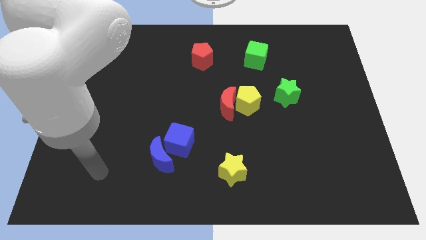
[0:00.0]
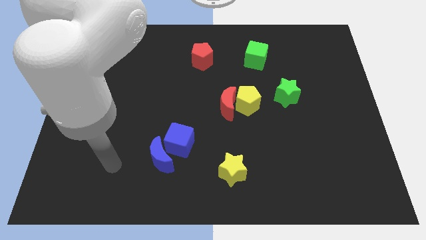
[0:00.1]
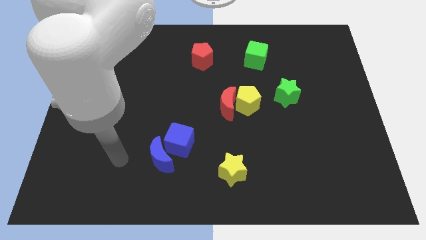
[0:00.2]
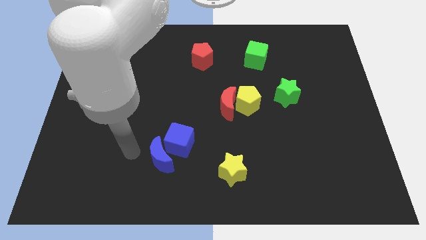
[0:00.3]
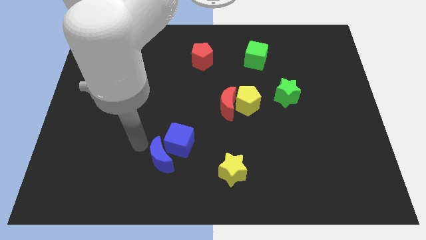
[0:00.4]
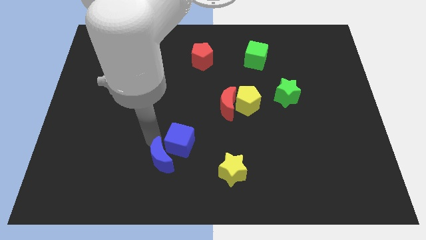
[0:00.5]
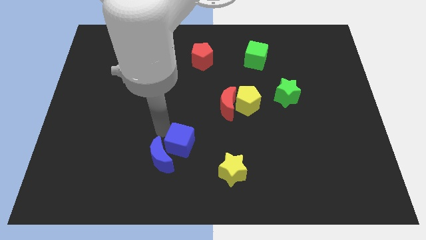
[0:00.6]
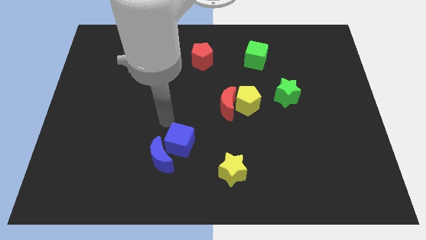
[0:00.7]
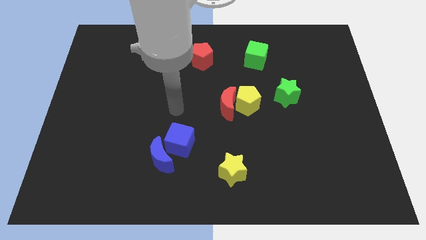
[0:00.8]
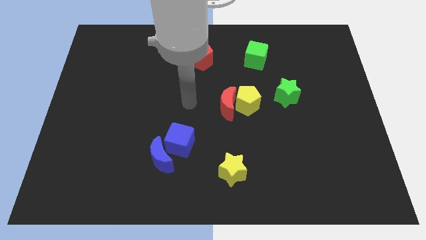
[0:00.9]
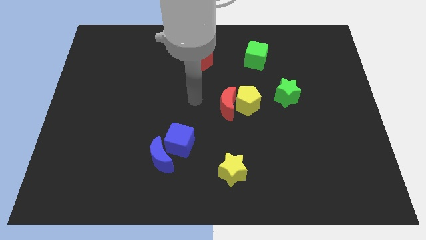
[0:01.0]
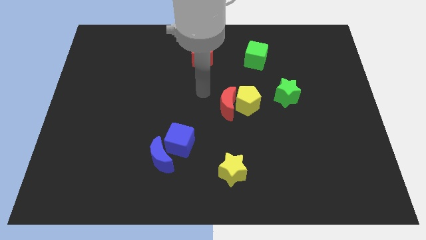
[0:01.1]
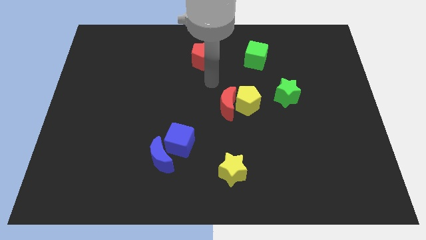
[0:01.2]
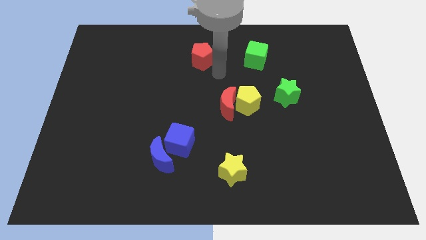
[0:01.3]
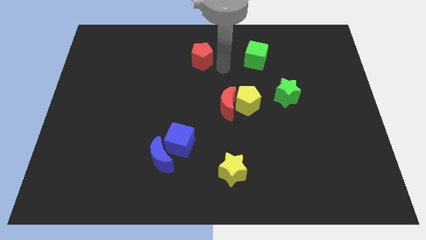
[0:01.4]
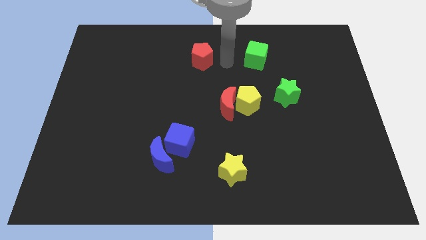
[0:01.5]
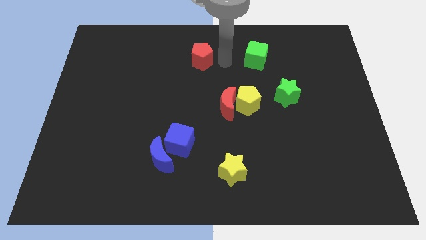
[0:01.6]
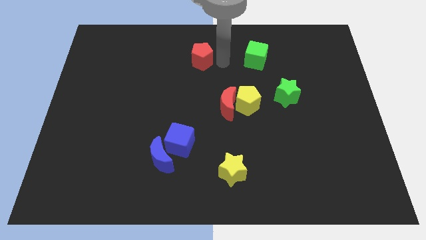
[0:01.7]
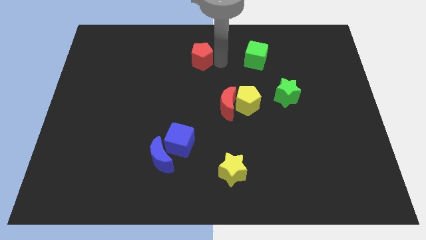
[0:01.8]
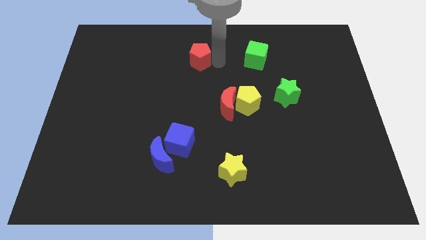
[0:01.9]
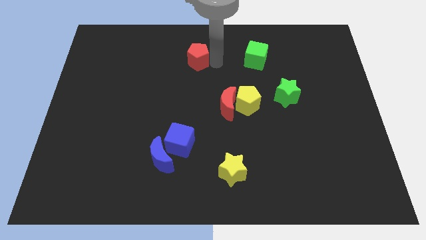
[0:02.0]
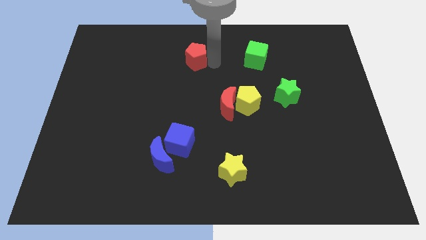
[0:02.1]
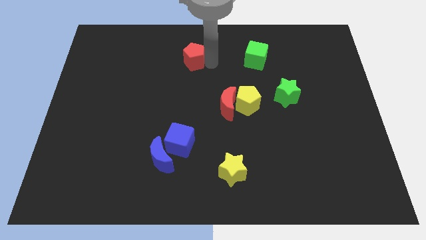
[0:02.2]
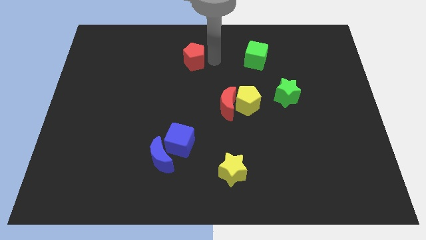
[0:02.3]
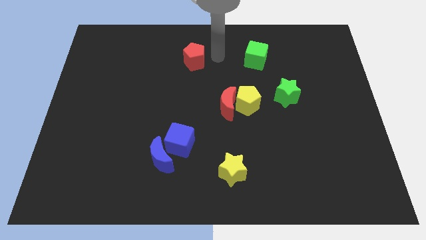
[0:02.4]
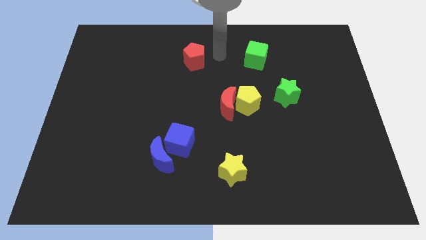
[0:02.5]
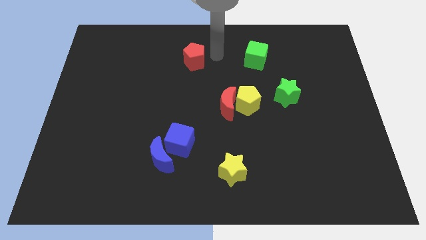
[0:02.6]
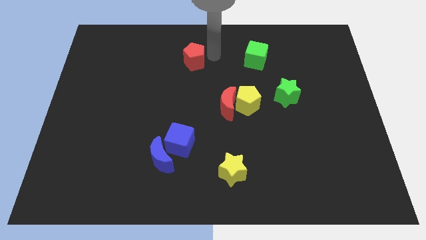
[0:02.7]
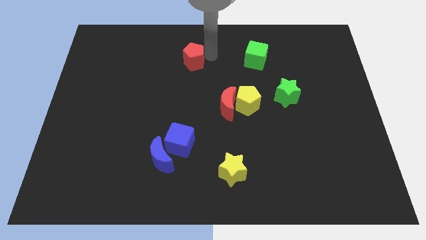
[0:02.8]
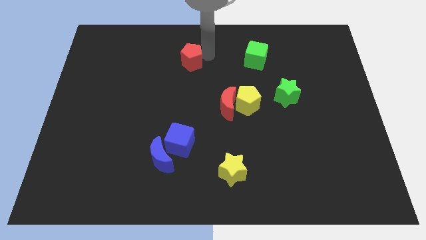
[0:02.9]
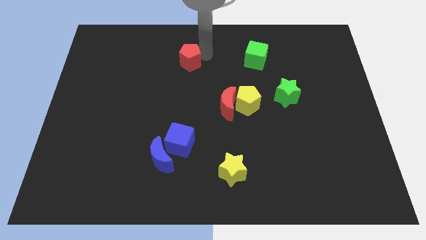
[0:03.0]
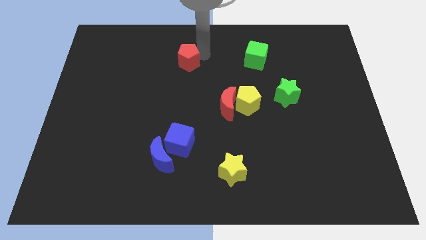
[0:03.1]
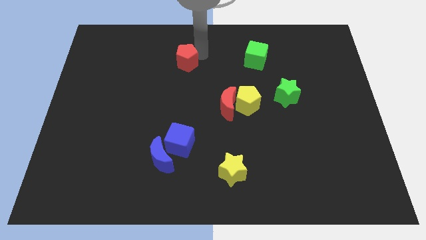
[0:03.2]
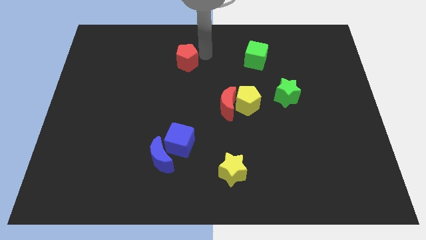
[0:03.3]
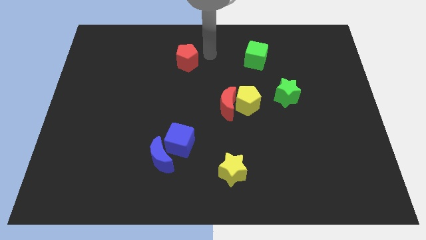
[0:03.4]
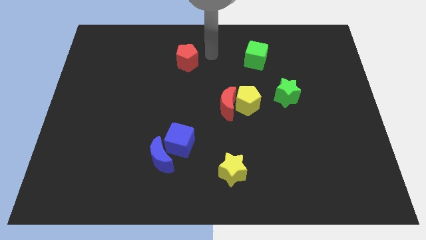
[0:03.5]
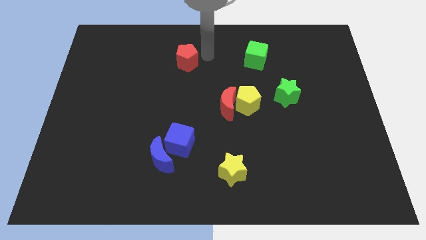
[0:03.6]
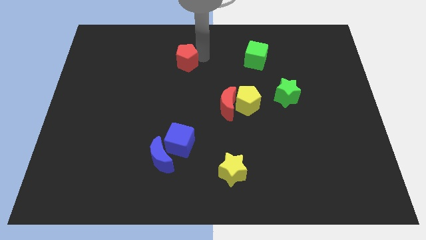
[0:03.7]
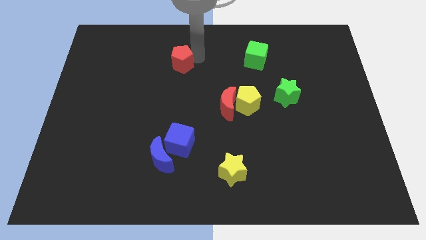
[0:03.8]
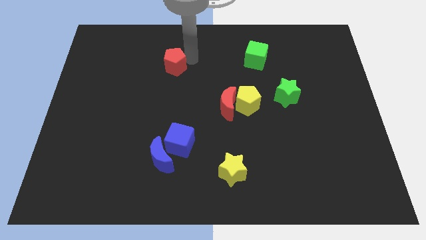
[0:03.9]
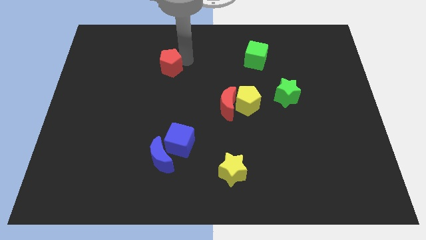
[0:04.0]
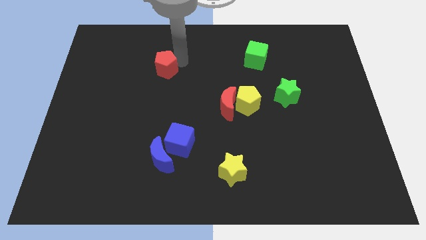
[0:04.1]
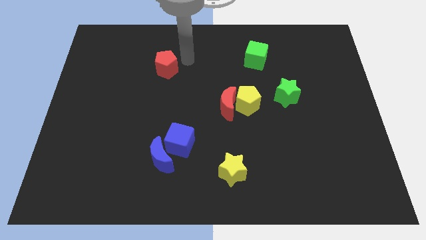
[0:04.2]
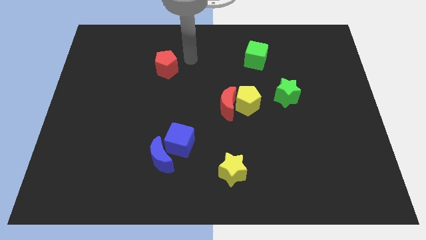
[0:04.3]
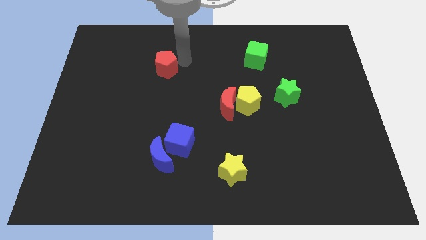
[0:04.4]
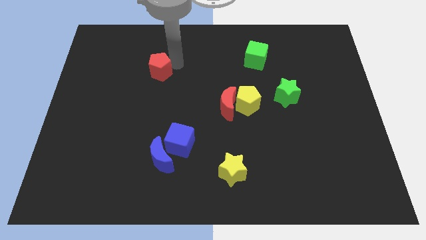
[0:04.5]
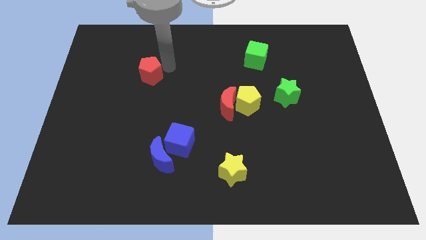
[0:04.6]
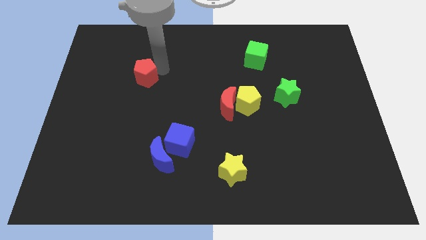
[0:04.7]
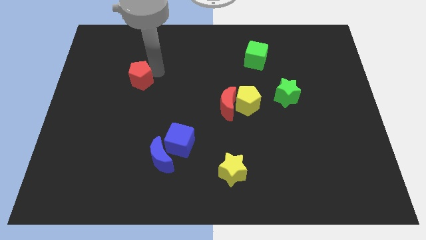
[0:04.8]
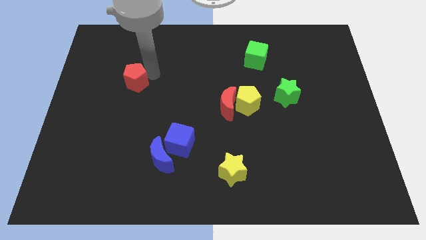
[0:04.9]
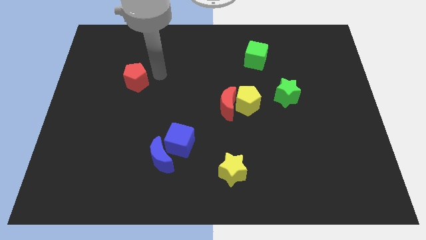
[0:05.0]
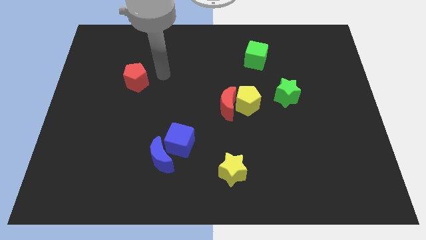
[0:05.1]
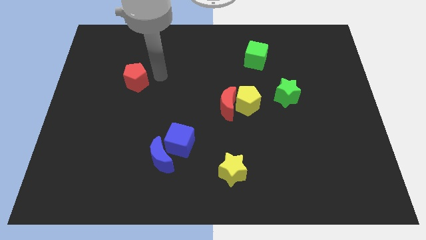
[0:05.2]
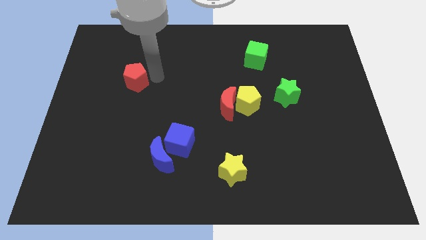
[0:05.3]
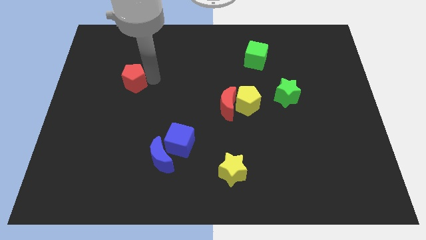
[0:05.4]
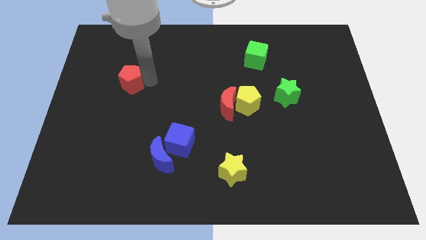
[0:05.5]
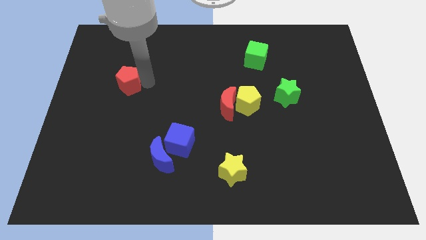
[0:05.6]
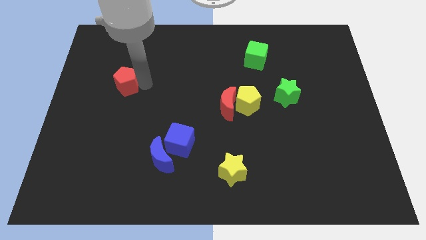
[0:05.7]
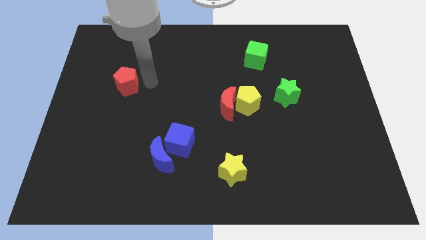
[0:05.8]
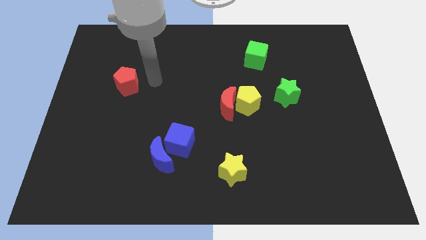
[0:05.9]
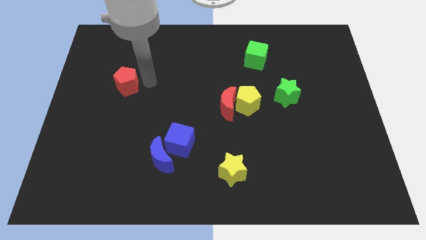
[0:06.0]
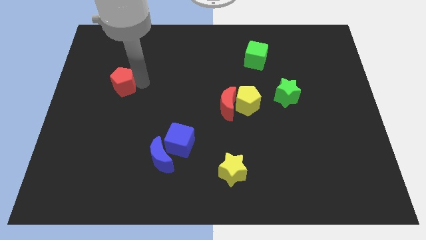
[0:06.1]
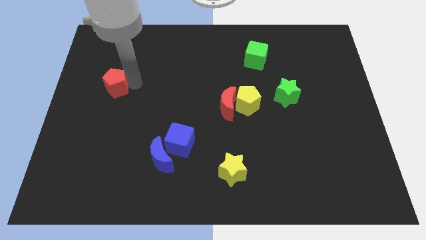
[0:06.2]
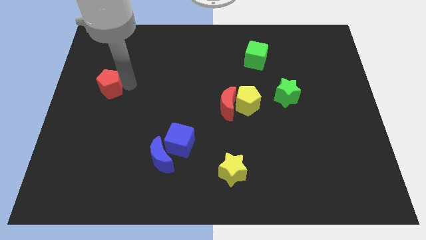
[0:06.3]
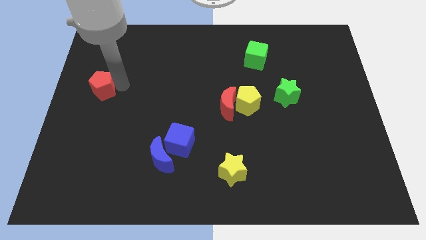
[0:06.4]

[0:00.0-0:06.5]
slide the red pentagon to the left side

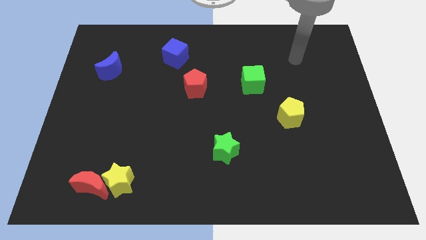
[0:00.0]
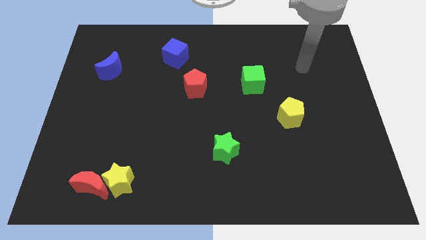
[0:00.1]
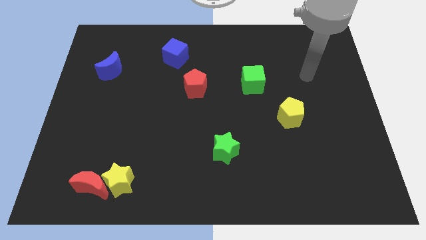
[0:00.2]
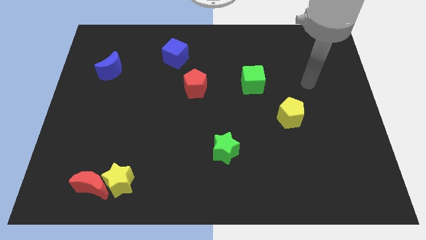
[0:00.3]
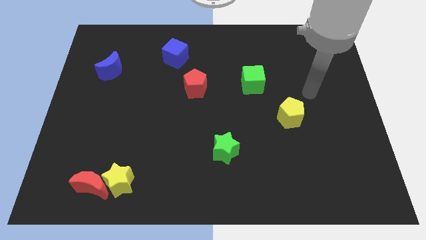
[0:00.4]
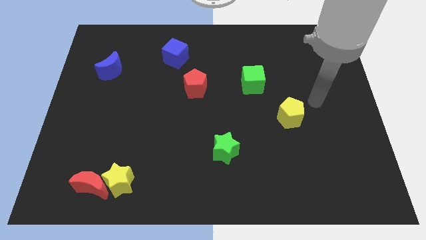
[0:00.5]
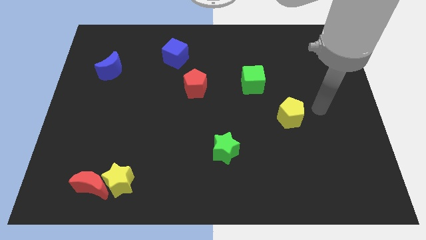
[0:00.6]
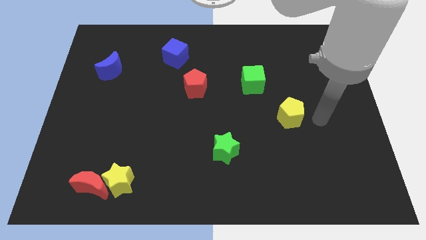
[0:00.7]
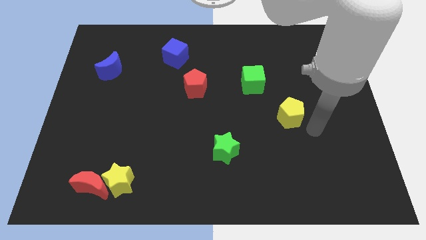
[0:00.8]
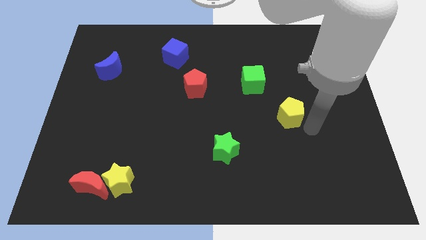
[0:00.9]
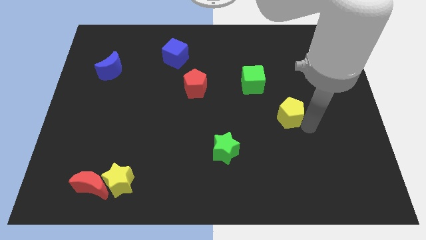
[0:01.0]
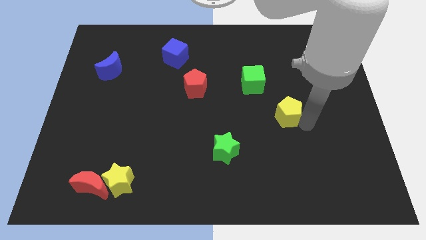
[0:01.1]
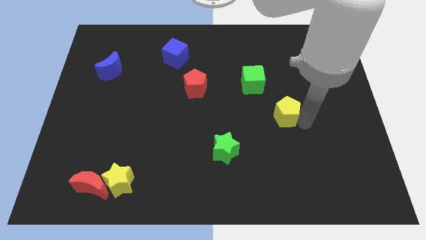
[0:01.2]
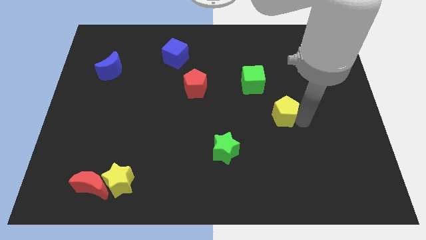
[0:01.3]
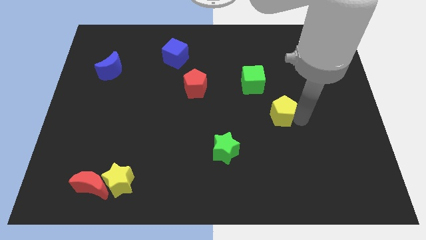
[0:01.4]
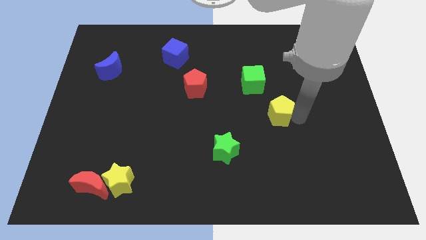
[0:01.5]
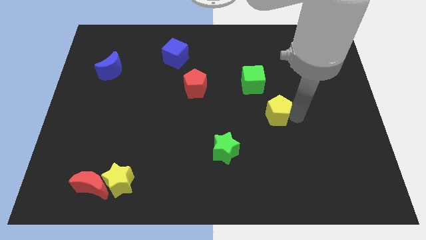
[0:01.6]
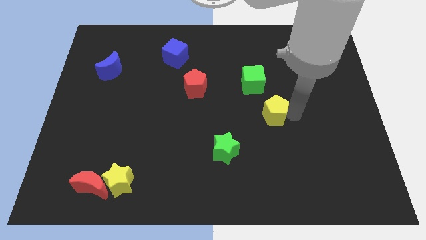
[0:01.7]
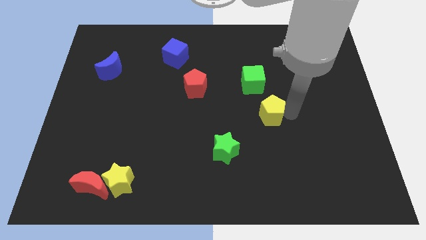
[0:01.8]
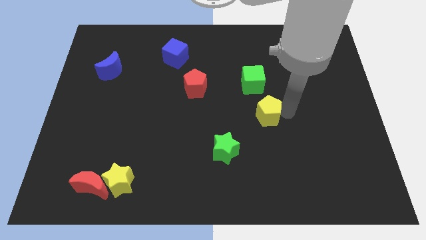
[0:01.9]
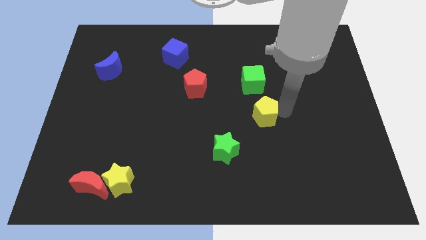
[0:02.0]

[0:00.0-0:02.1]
slide the yellow pentagon to the middle
